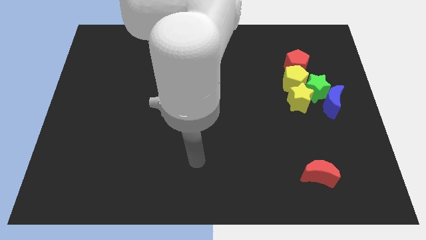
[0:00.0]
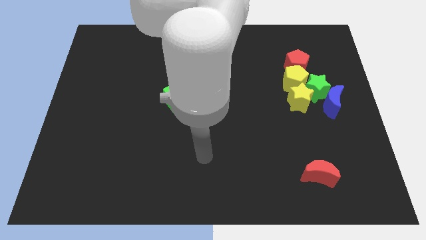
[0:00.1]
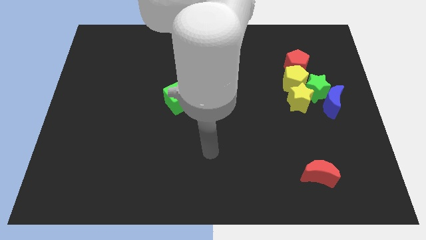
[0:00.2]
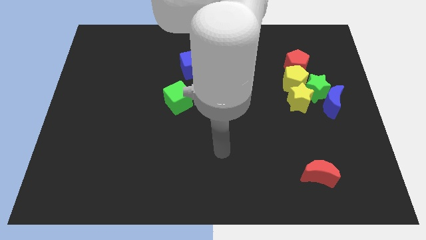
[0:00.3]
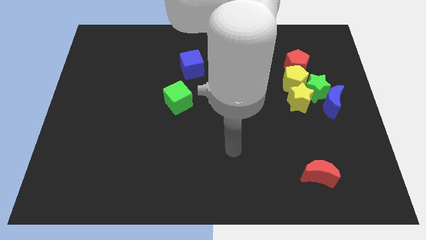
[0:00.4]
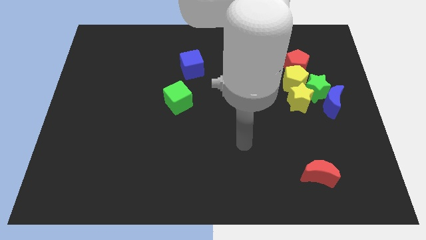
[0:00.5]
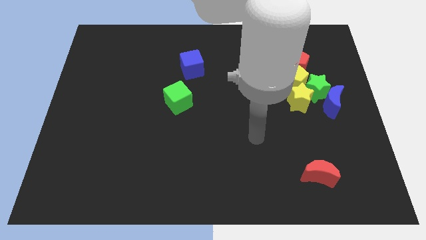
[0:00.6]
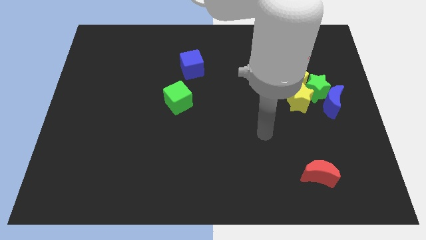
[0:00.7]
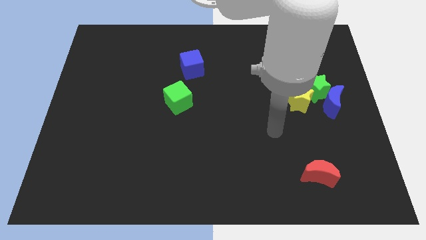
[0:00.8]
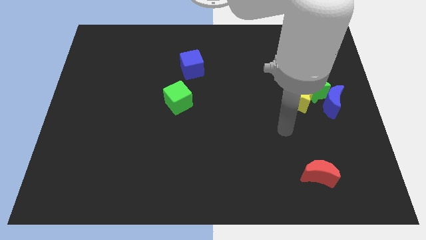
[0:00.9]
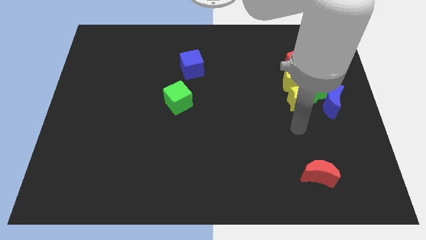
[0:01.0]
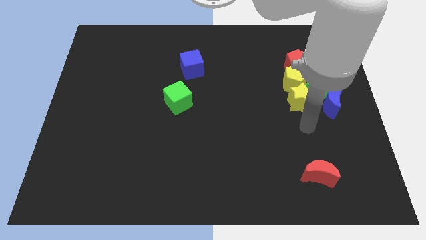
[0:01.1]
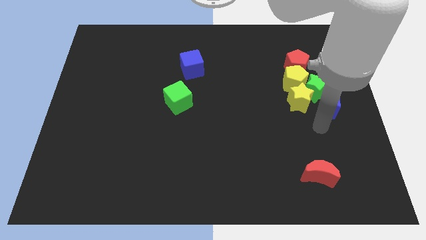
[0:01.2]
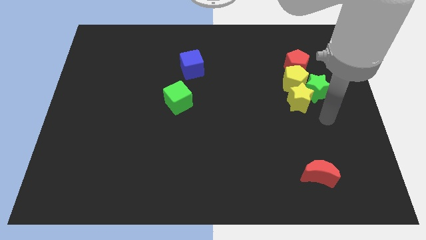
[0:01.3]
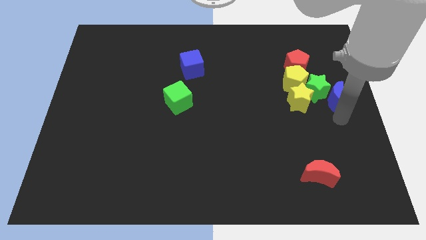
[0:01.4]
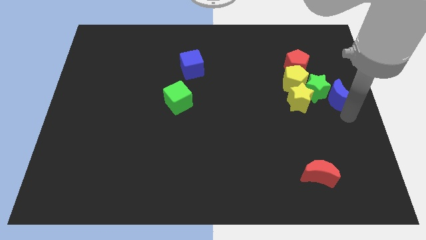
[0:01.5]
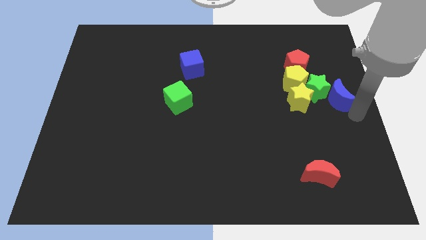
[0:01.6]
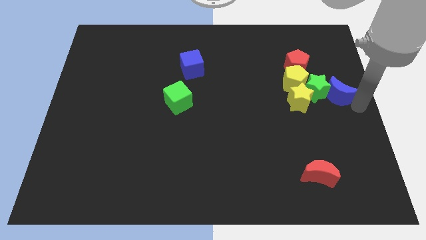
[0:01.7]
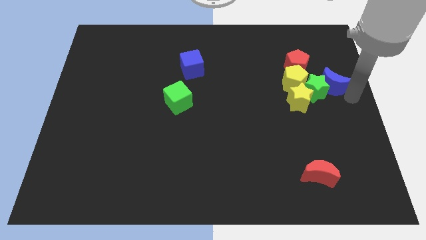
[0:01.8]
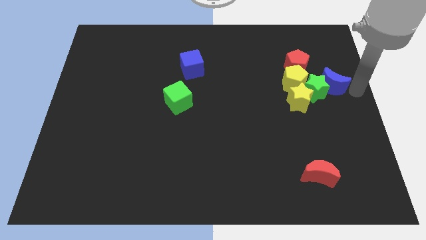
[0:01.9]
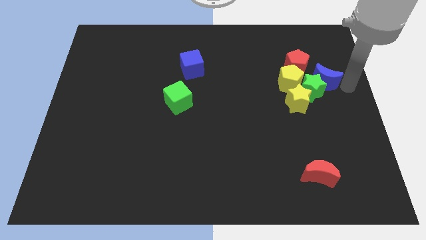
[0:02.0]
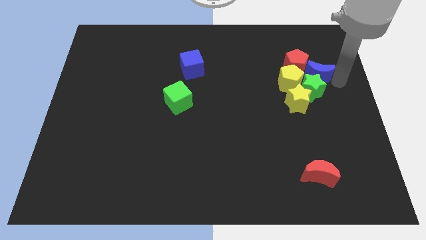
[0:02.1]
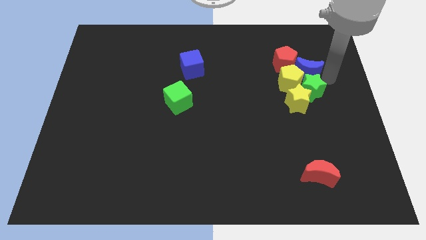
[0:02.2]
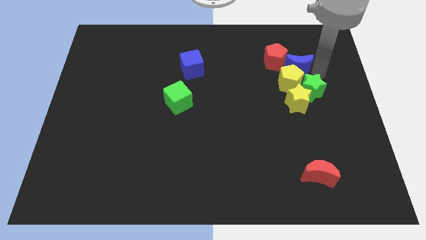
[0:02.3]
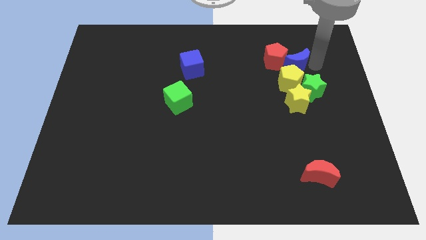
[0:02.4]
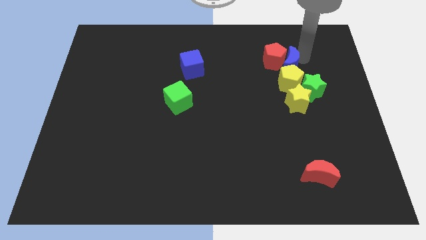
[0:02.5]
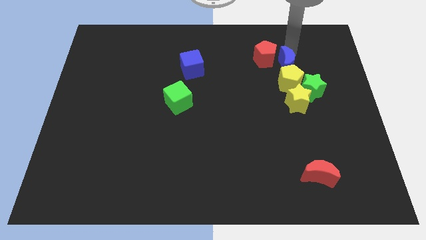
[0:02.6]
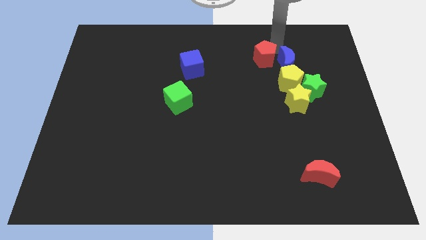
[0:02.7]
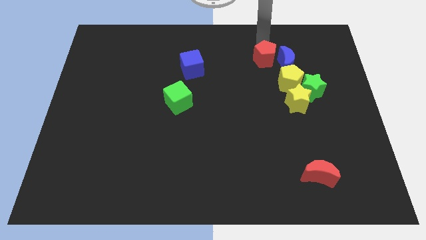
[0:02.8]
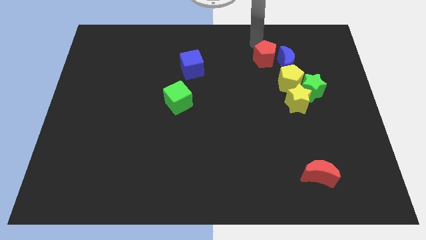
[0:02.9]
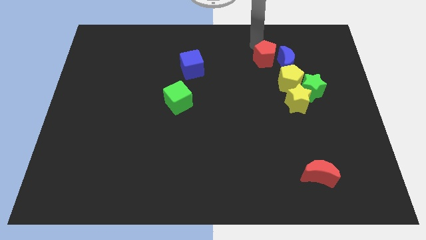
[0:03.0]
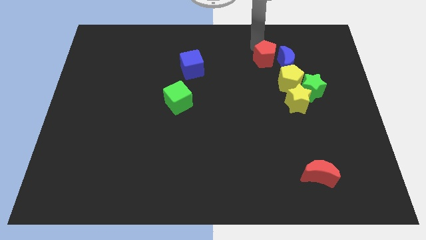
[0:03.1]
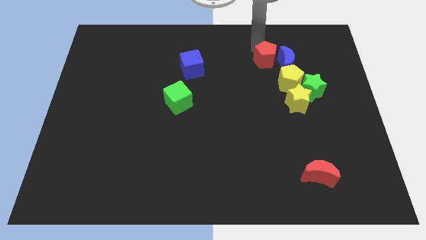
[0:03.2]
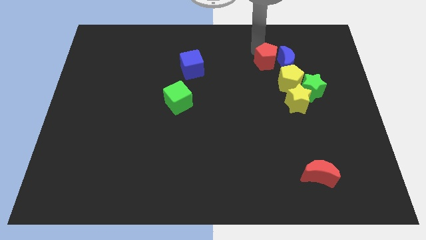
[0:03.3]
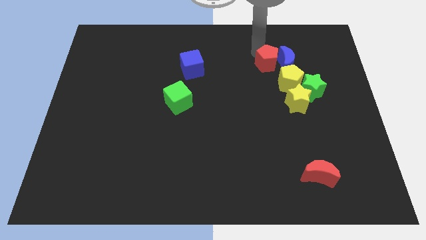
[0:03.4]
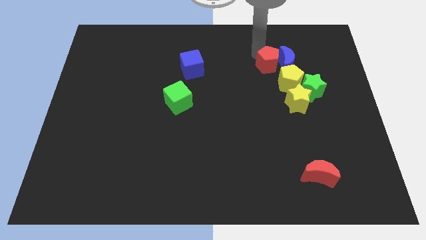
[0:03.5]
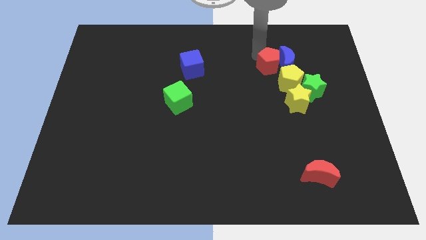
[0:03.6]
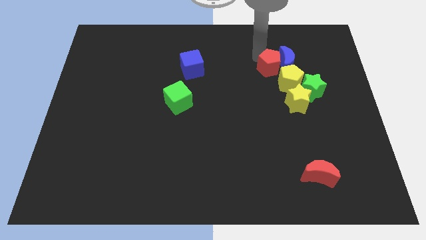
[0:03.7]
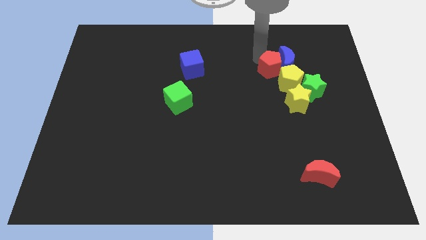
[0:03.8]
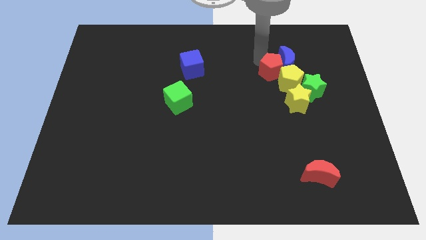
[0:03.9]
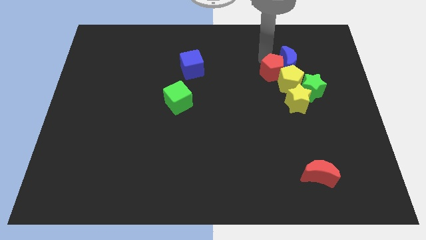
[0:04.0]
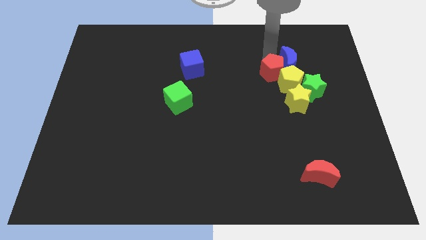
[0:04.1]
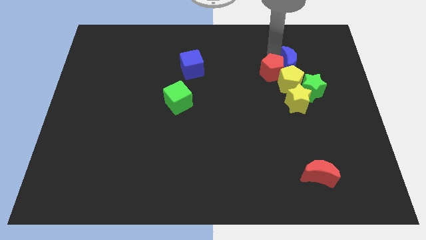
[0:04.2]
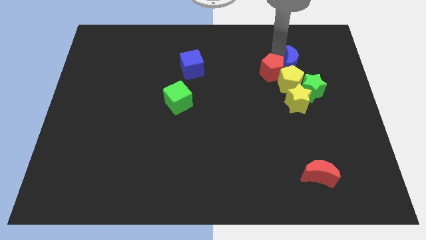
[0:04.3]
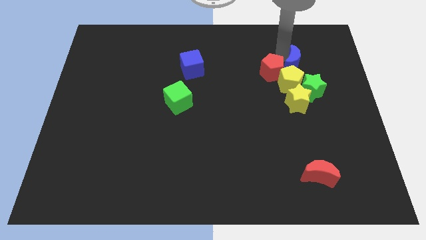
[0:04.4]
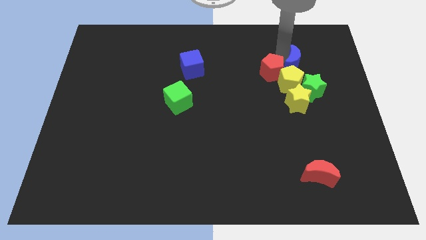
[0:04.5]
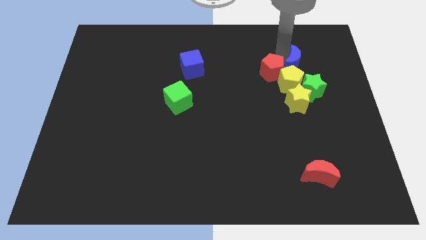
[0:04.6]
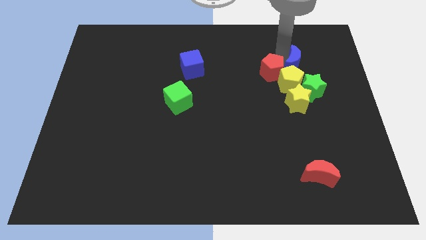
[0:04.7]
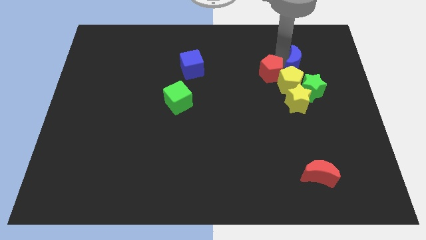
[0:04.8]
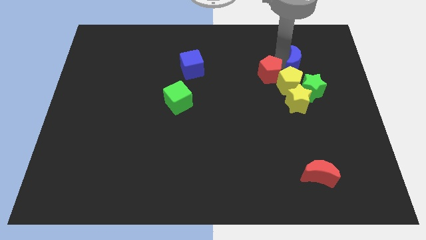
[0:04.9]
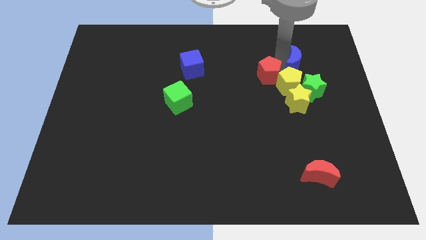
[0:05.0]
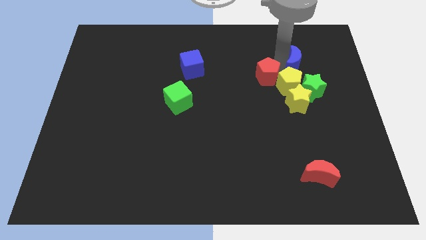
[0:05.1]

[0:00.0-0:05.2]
push the red pentagon a little bit down and left diagonally

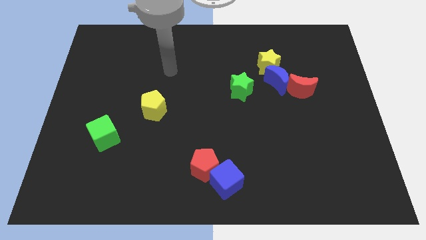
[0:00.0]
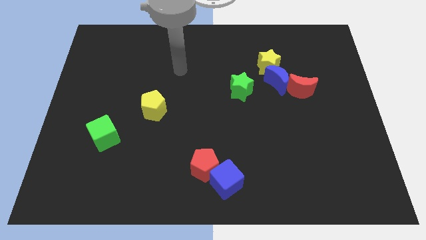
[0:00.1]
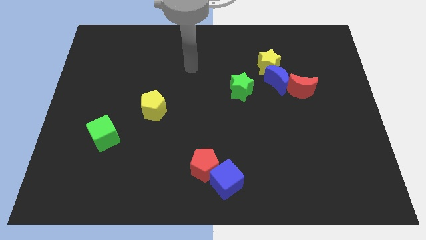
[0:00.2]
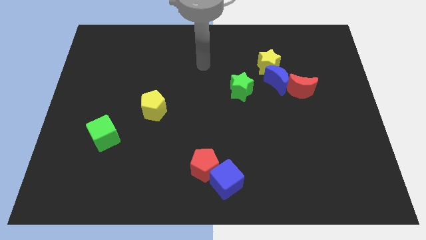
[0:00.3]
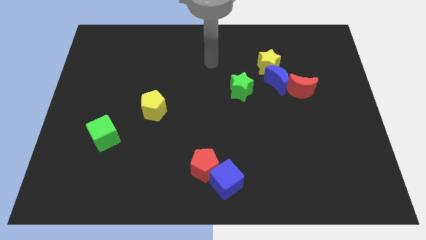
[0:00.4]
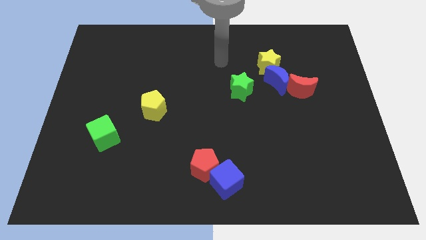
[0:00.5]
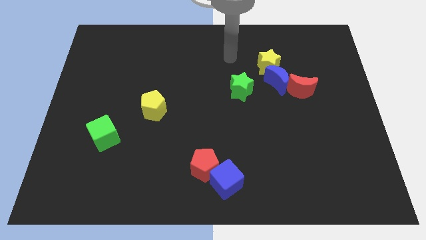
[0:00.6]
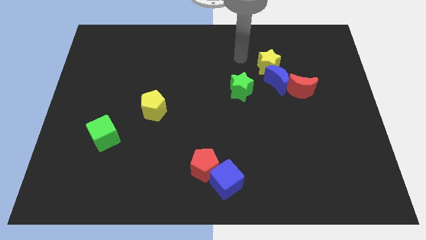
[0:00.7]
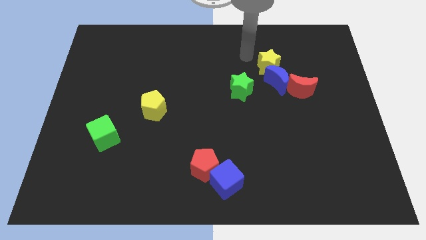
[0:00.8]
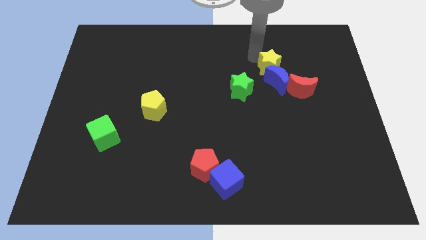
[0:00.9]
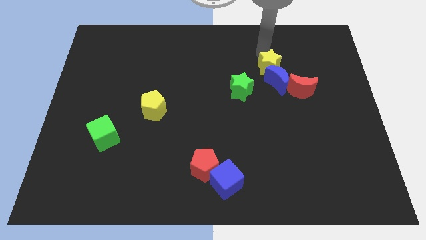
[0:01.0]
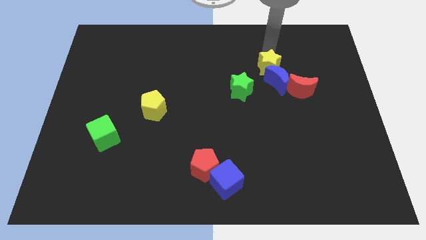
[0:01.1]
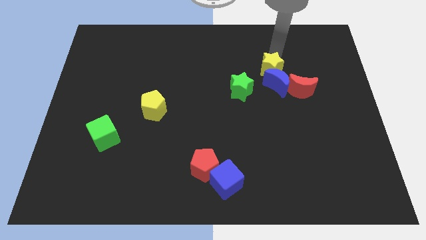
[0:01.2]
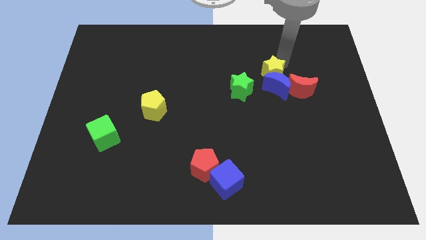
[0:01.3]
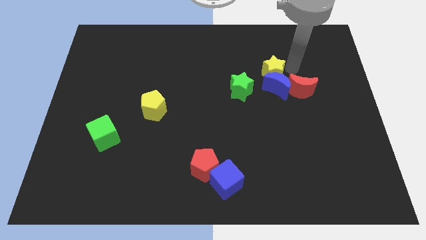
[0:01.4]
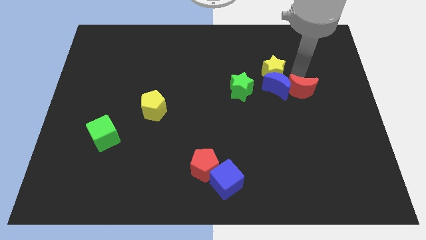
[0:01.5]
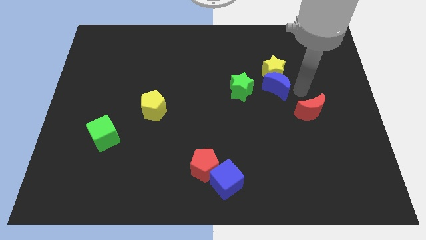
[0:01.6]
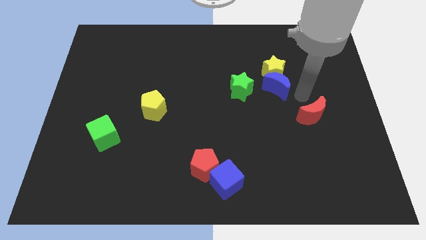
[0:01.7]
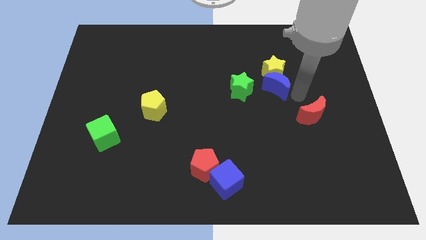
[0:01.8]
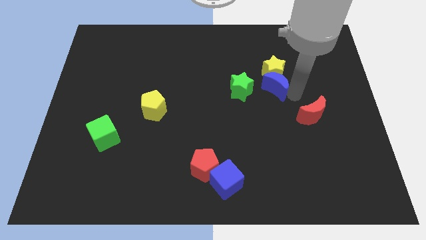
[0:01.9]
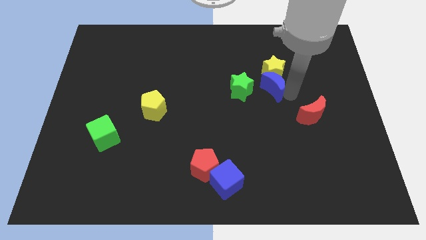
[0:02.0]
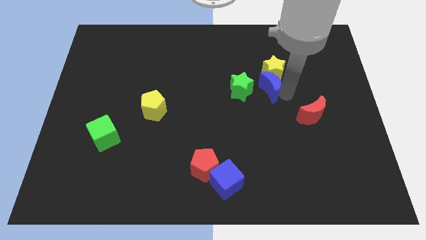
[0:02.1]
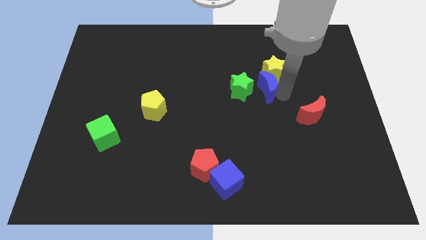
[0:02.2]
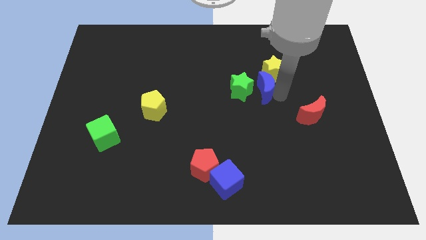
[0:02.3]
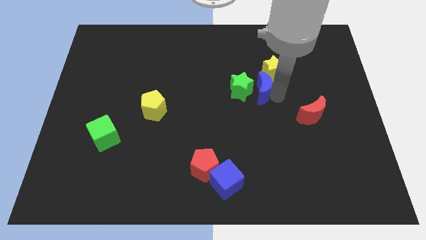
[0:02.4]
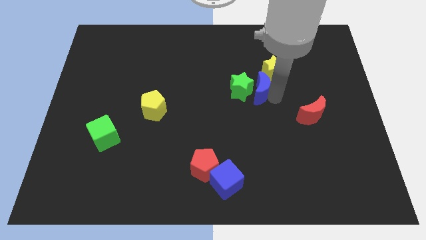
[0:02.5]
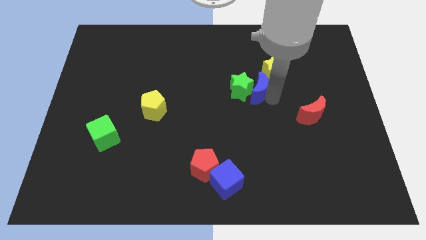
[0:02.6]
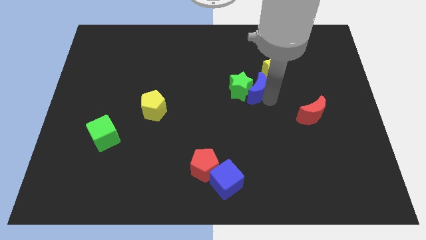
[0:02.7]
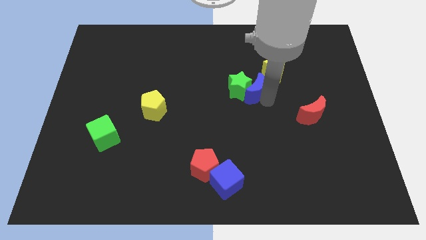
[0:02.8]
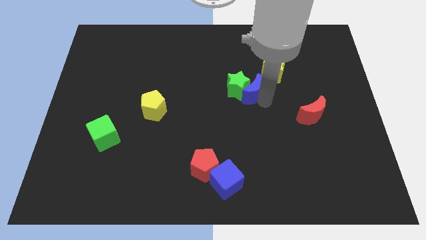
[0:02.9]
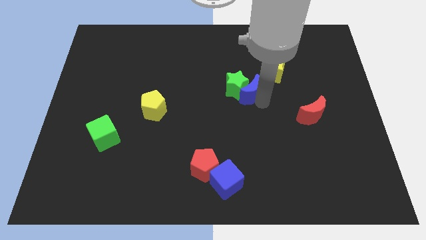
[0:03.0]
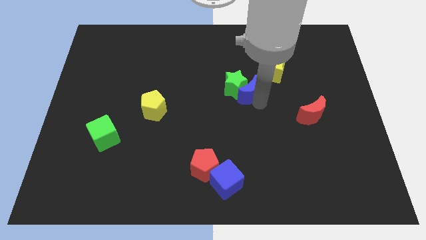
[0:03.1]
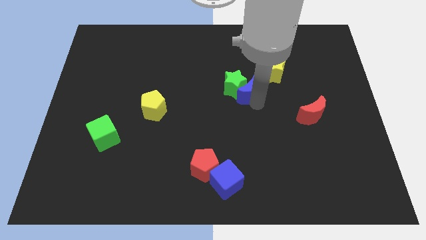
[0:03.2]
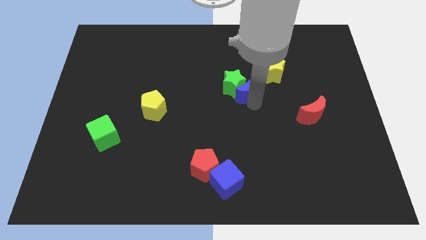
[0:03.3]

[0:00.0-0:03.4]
slide the blue moon somewhat left
